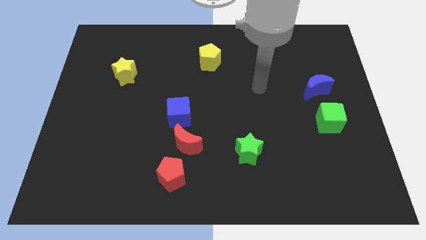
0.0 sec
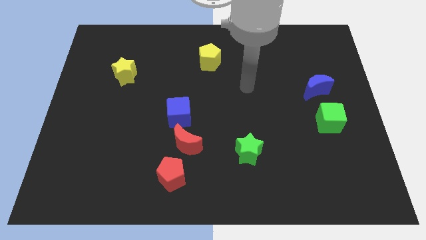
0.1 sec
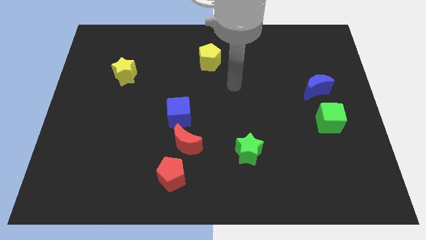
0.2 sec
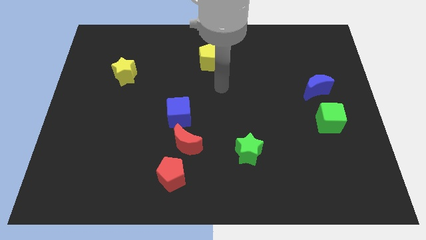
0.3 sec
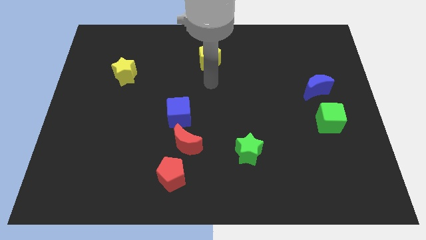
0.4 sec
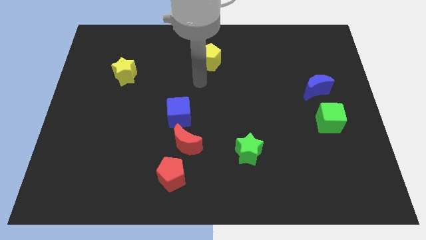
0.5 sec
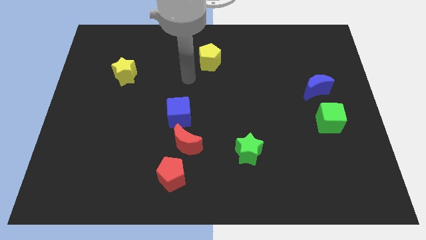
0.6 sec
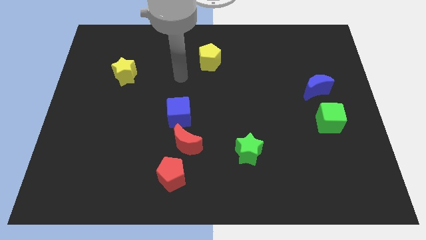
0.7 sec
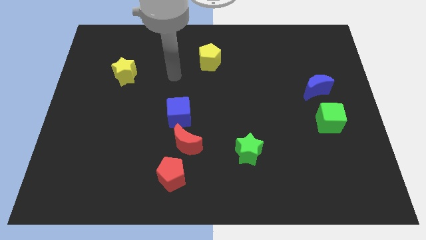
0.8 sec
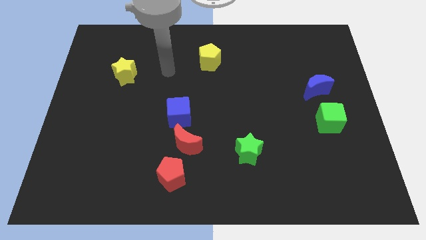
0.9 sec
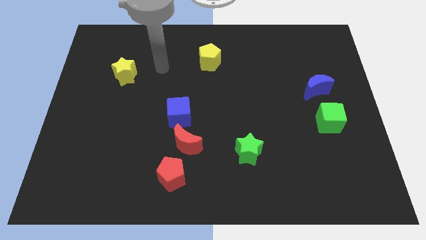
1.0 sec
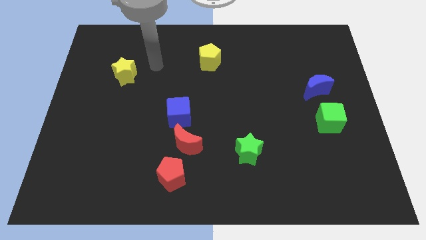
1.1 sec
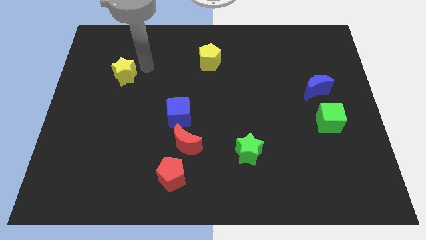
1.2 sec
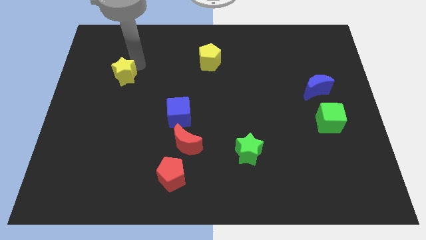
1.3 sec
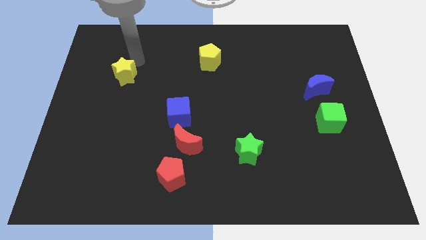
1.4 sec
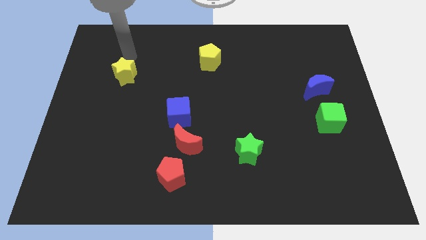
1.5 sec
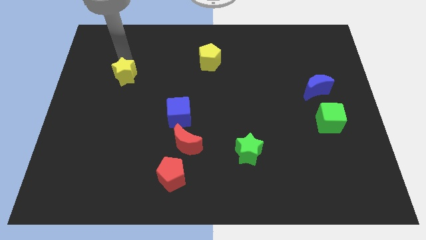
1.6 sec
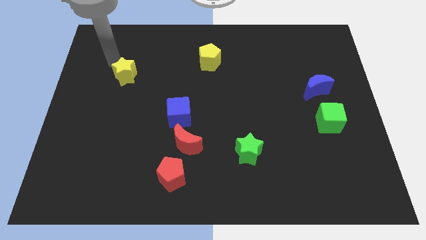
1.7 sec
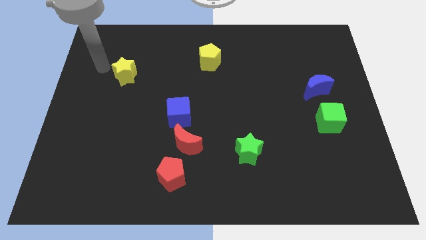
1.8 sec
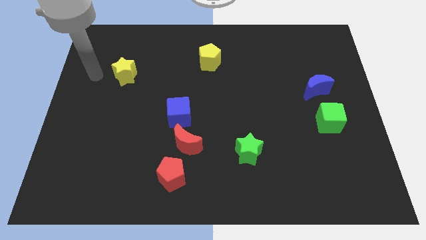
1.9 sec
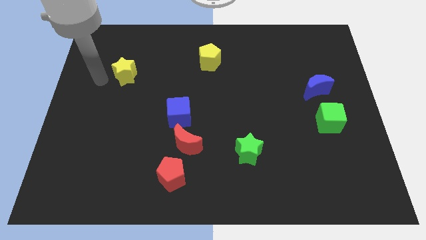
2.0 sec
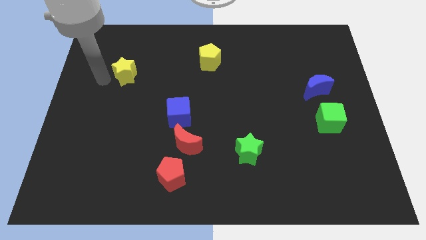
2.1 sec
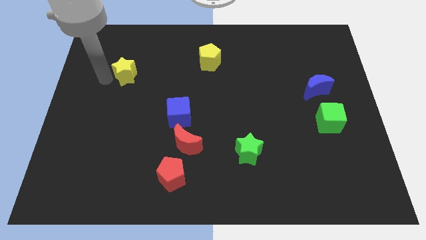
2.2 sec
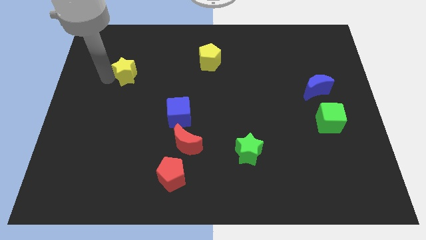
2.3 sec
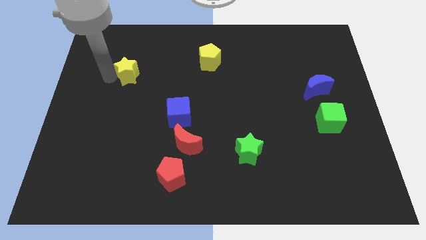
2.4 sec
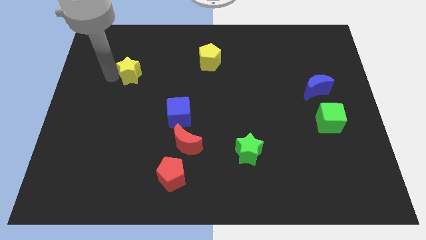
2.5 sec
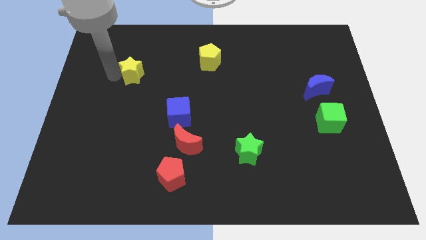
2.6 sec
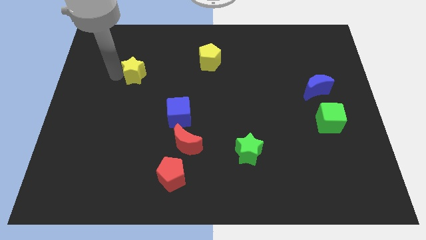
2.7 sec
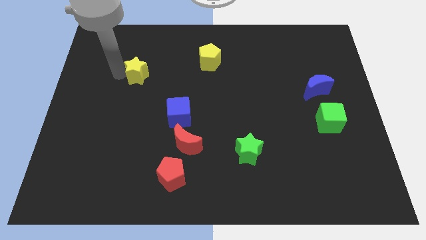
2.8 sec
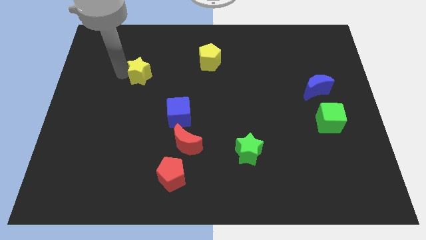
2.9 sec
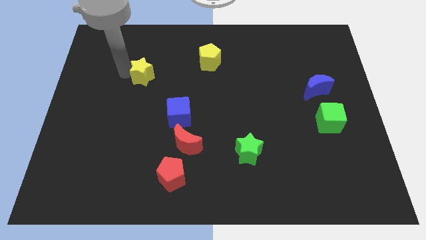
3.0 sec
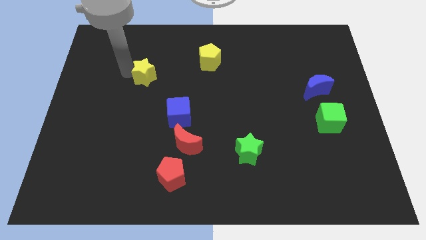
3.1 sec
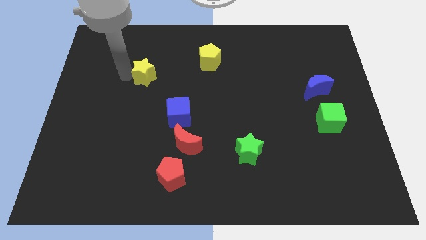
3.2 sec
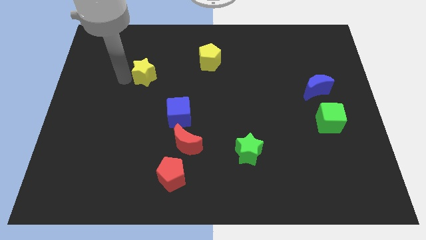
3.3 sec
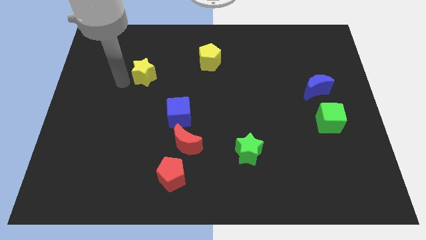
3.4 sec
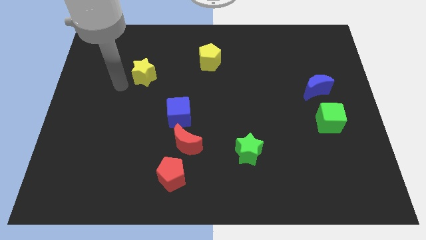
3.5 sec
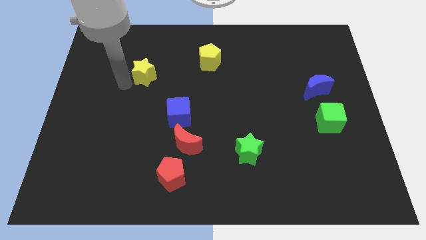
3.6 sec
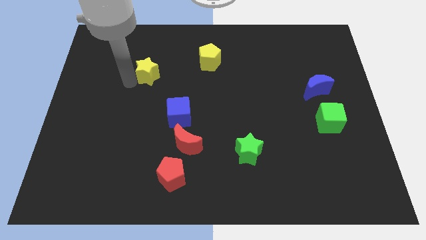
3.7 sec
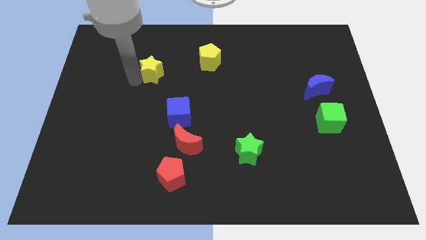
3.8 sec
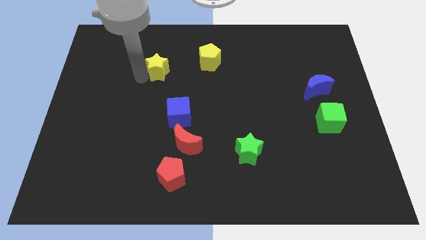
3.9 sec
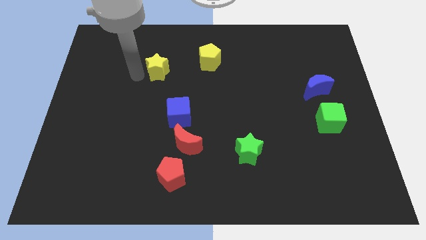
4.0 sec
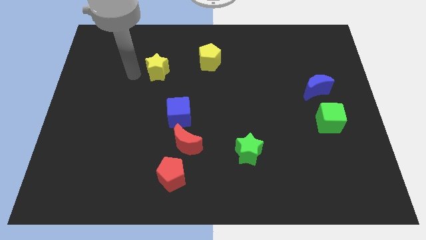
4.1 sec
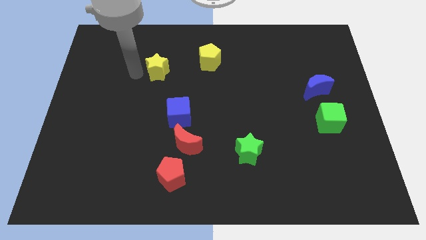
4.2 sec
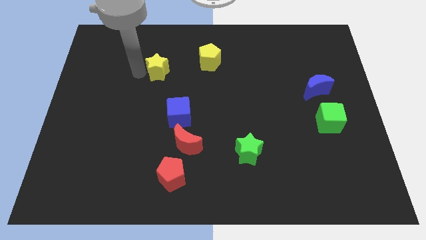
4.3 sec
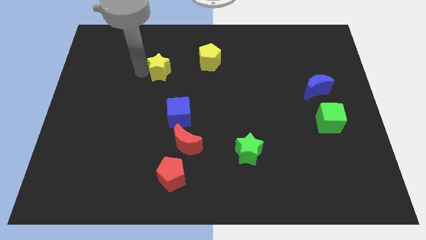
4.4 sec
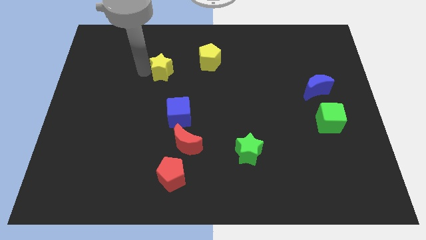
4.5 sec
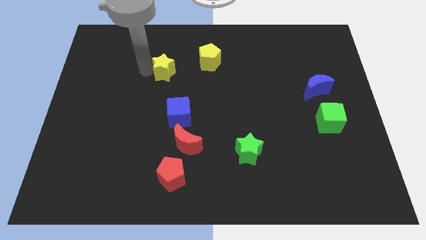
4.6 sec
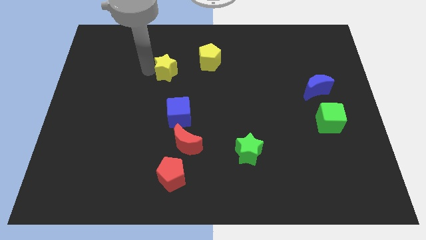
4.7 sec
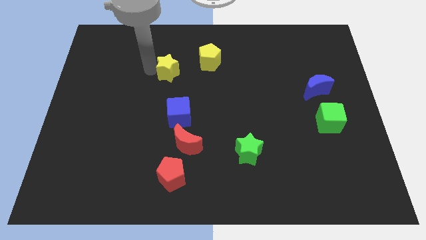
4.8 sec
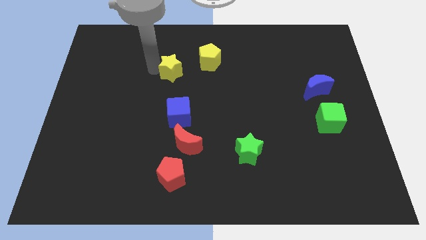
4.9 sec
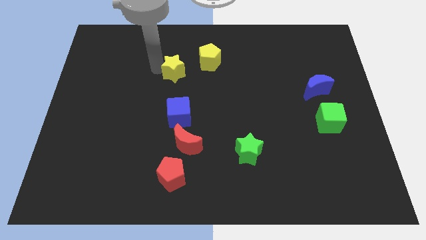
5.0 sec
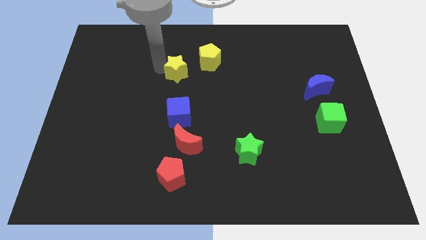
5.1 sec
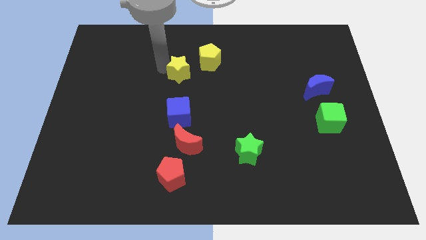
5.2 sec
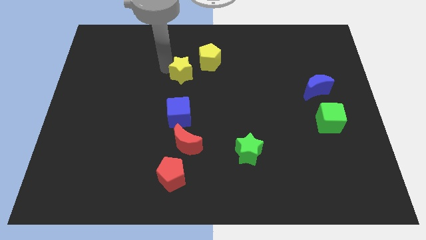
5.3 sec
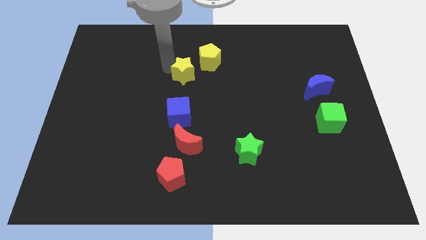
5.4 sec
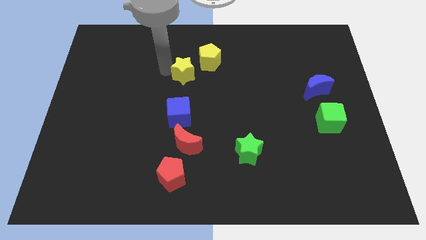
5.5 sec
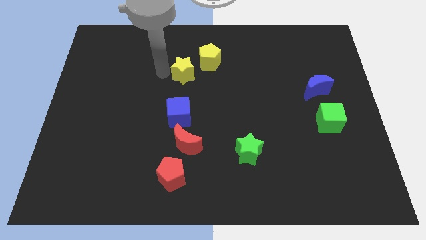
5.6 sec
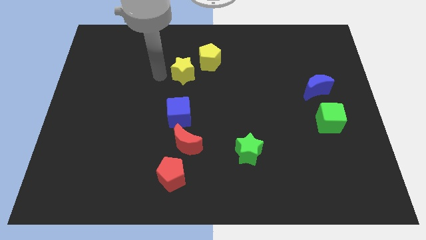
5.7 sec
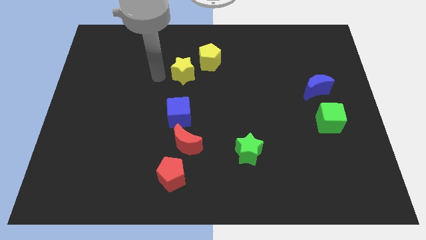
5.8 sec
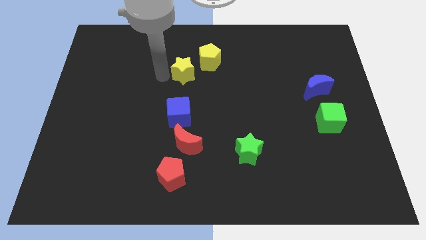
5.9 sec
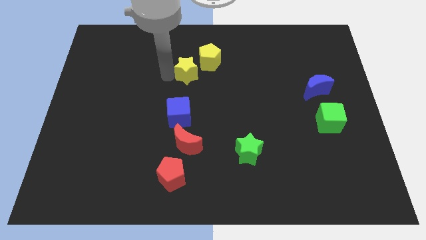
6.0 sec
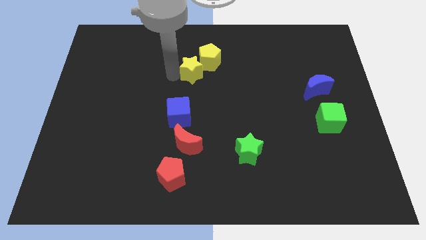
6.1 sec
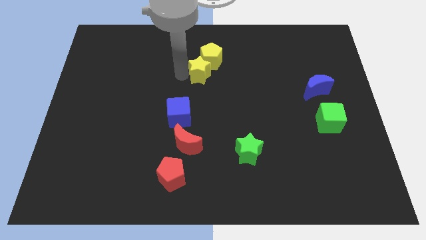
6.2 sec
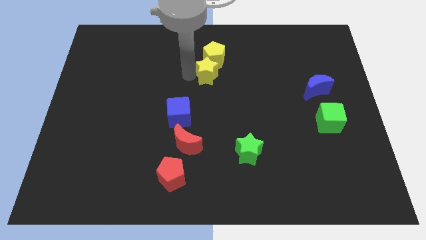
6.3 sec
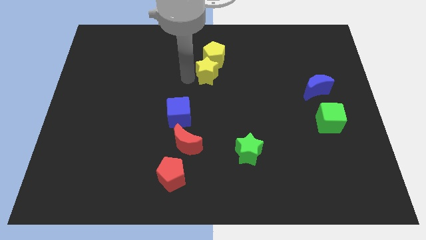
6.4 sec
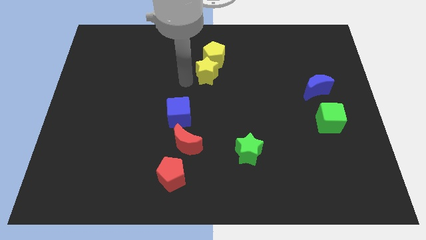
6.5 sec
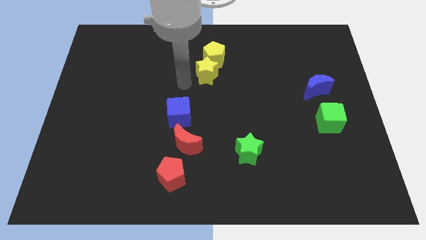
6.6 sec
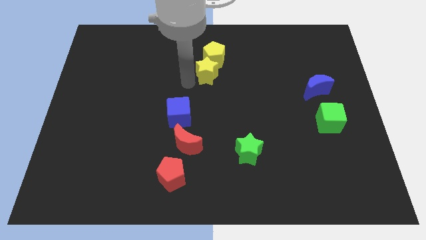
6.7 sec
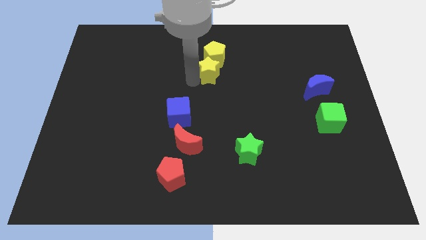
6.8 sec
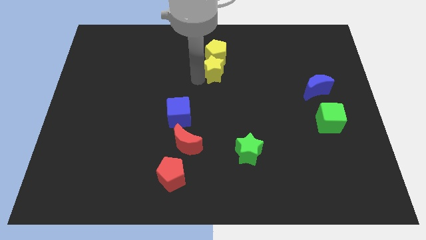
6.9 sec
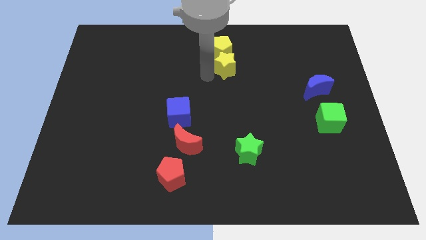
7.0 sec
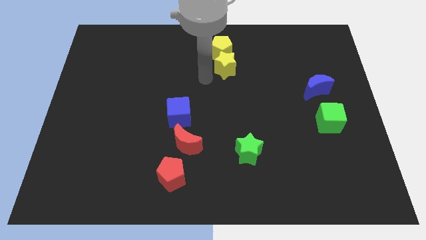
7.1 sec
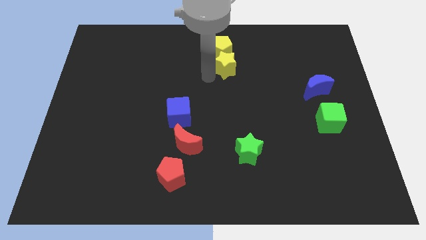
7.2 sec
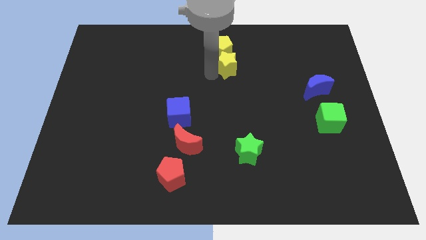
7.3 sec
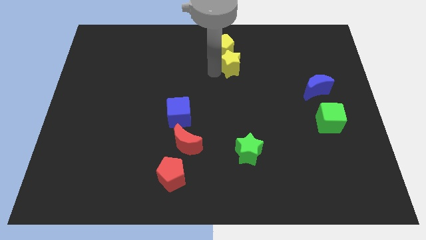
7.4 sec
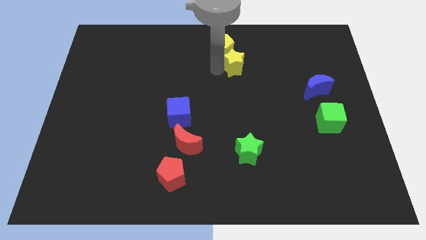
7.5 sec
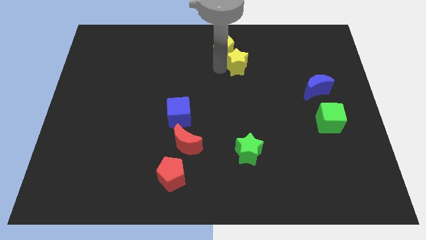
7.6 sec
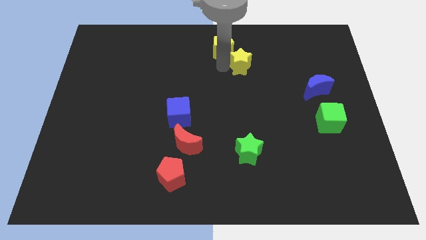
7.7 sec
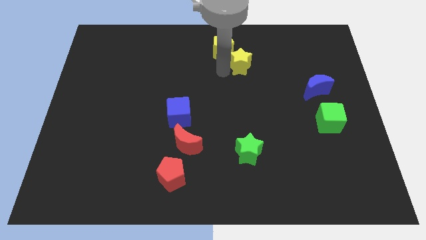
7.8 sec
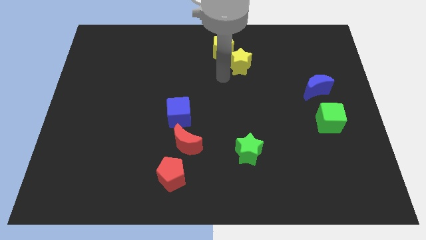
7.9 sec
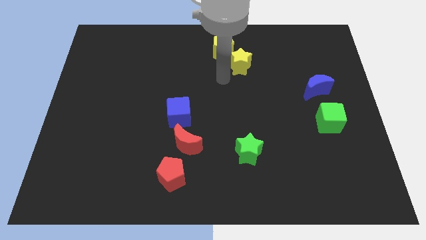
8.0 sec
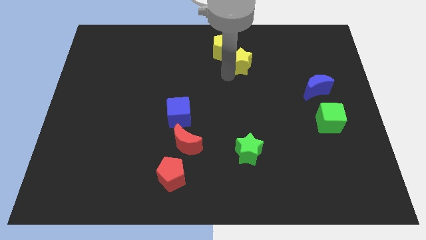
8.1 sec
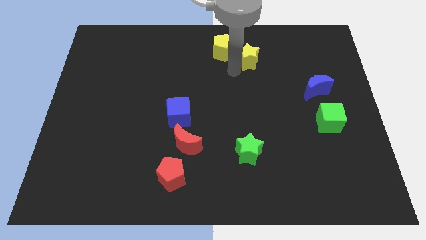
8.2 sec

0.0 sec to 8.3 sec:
push the yellow star to the right side of the yellow pentagon
